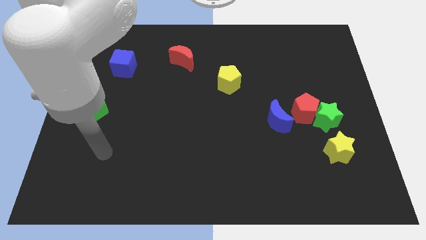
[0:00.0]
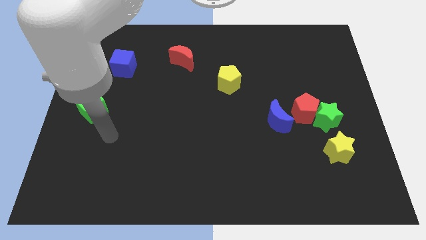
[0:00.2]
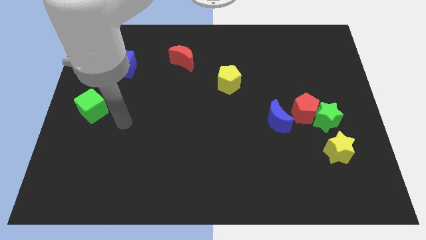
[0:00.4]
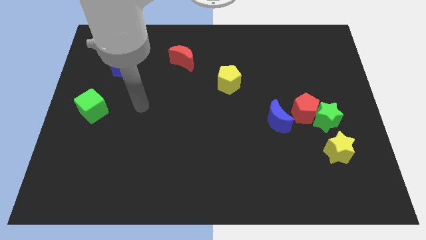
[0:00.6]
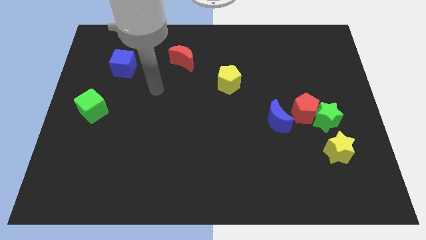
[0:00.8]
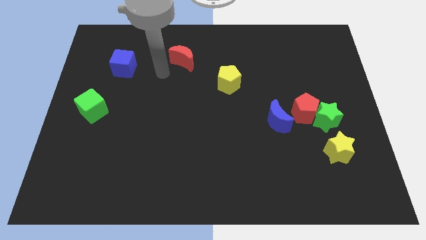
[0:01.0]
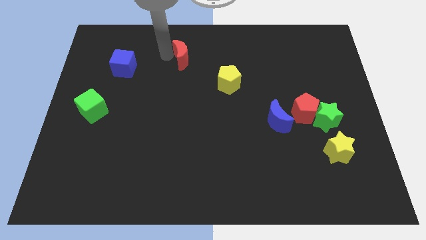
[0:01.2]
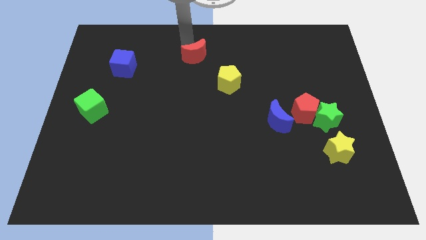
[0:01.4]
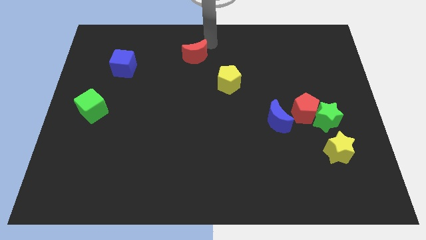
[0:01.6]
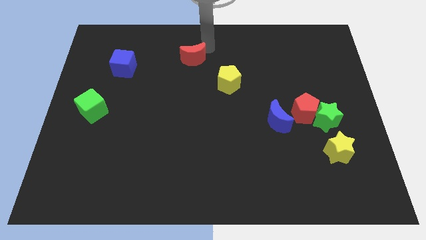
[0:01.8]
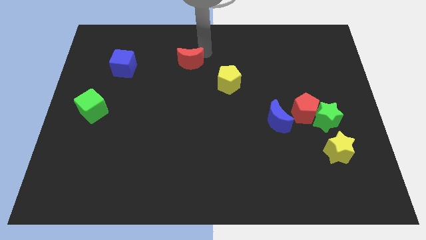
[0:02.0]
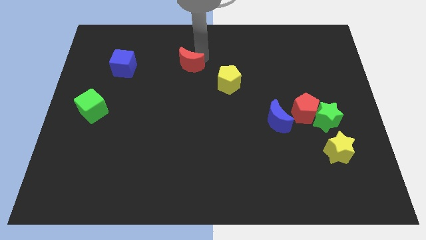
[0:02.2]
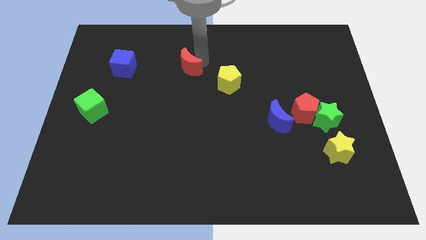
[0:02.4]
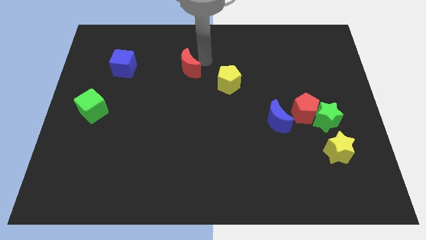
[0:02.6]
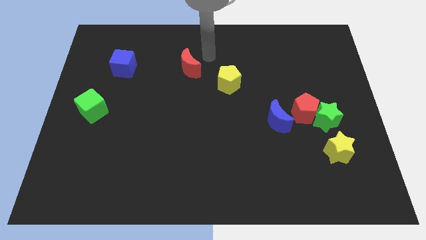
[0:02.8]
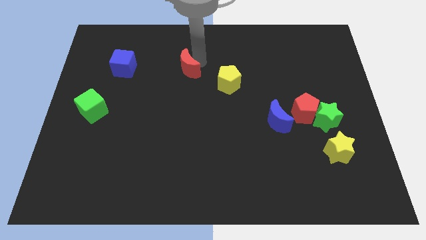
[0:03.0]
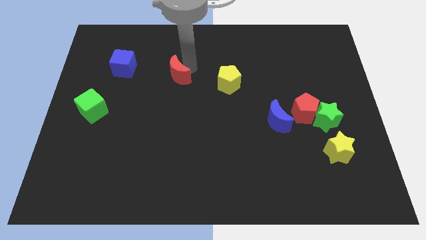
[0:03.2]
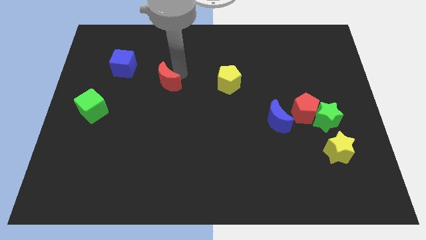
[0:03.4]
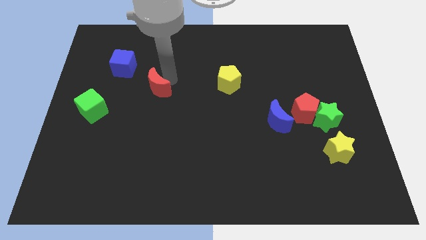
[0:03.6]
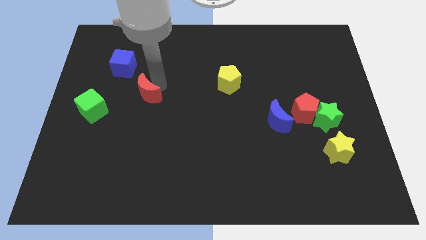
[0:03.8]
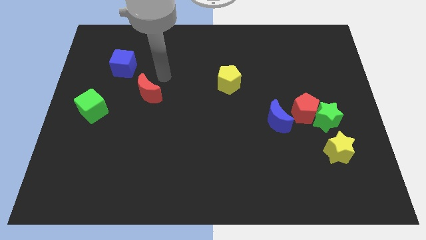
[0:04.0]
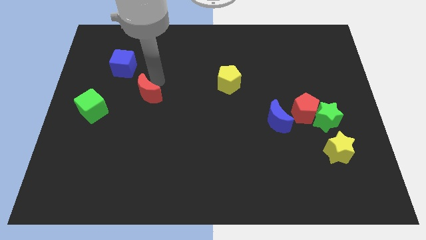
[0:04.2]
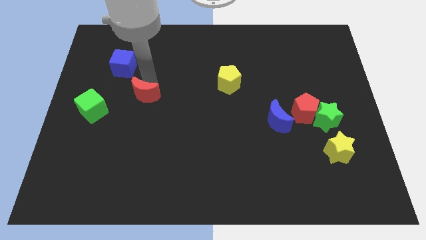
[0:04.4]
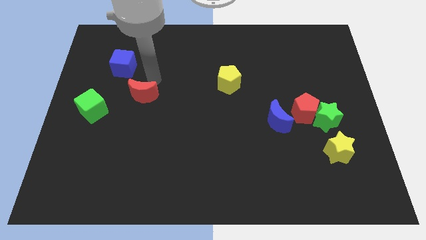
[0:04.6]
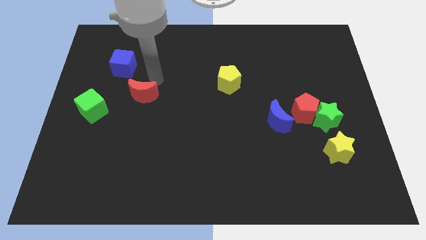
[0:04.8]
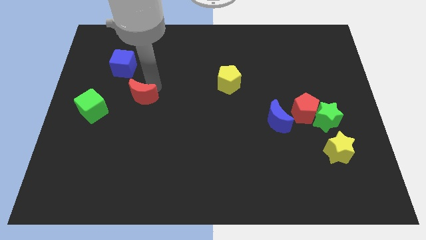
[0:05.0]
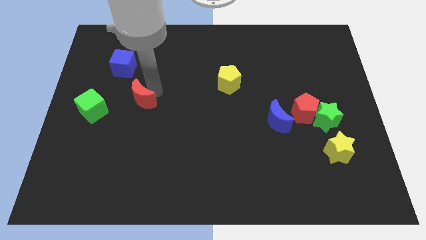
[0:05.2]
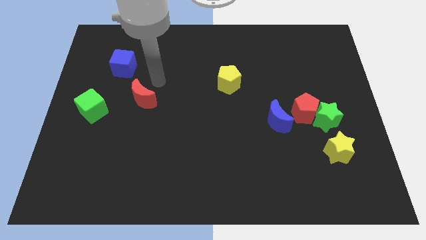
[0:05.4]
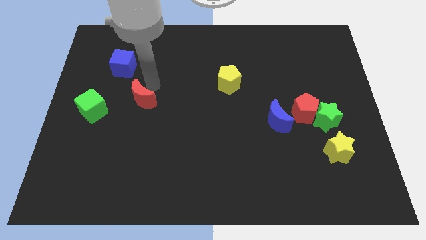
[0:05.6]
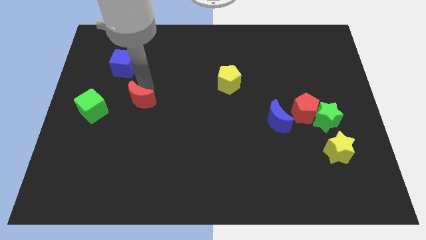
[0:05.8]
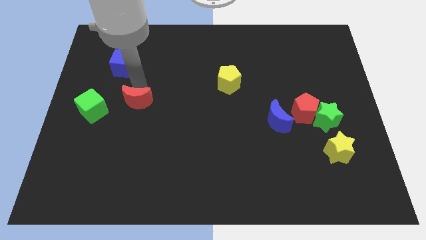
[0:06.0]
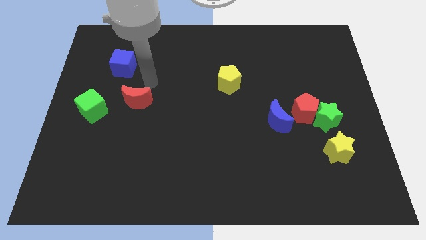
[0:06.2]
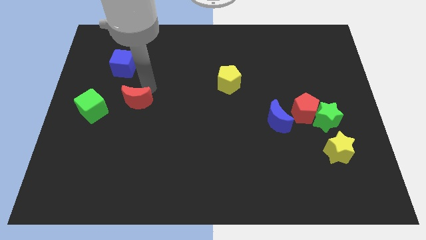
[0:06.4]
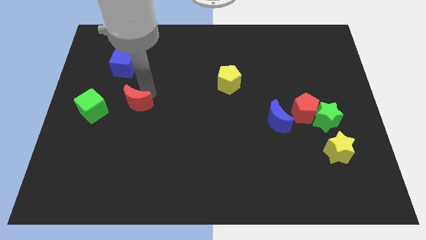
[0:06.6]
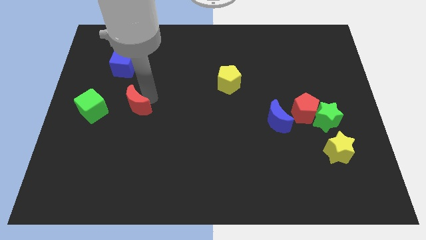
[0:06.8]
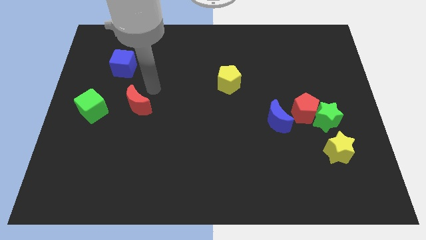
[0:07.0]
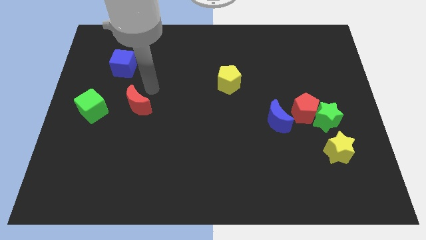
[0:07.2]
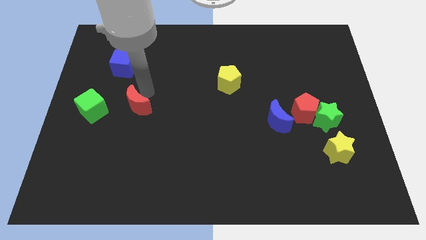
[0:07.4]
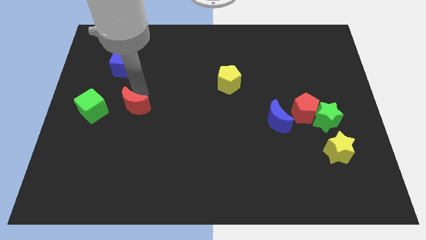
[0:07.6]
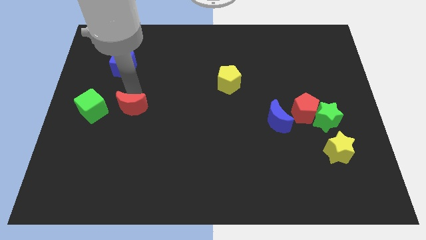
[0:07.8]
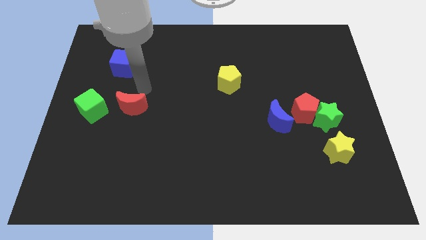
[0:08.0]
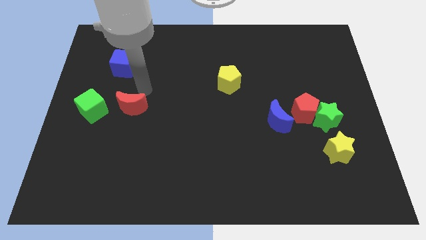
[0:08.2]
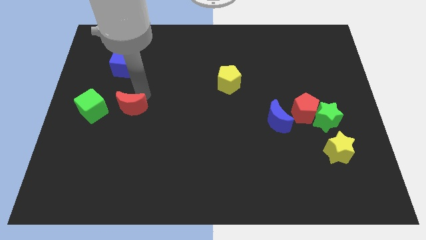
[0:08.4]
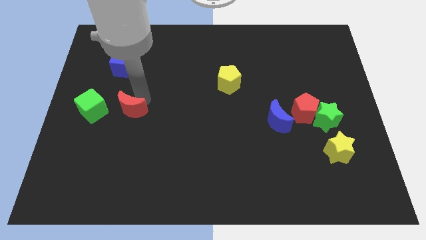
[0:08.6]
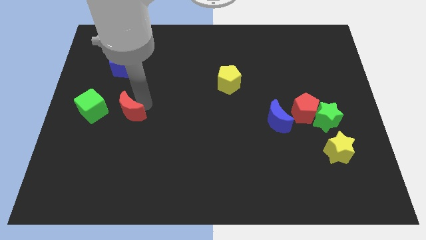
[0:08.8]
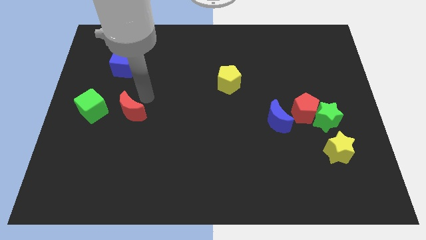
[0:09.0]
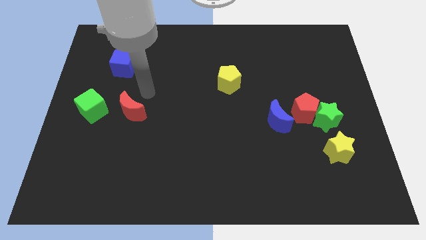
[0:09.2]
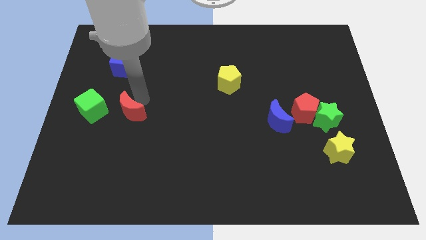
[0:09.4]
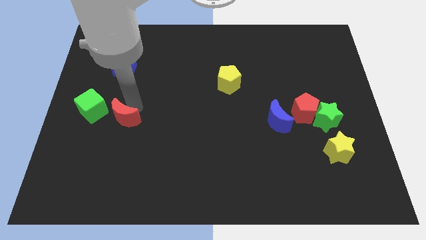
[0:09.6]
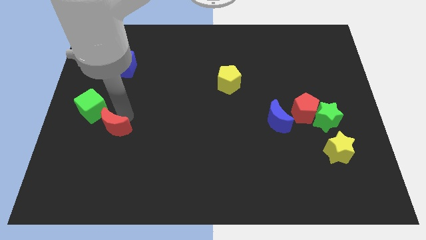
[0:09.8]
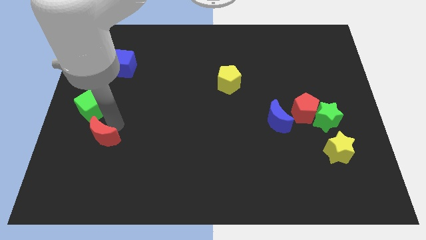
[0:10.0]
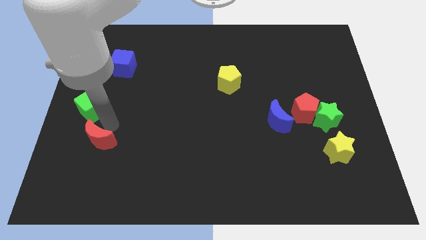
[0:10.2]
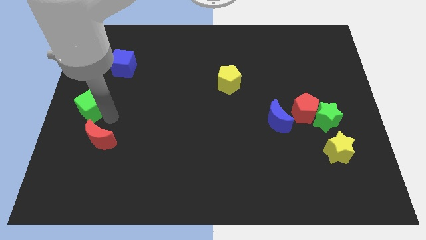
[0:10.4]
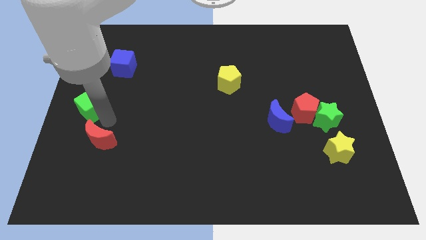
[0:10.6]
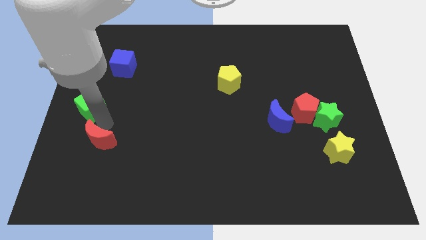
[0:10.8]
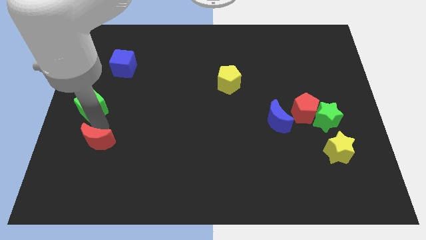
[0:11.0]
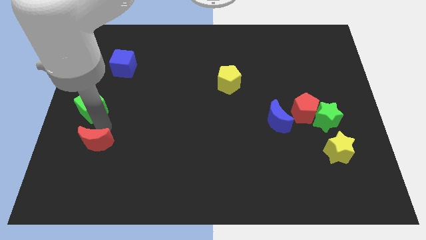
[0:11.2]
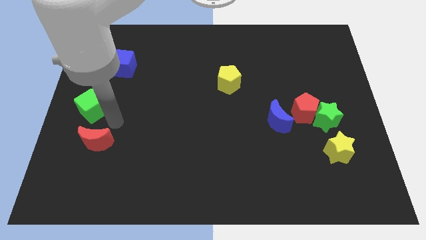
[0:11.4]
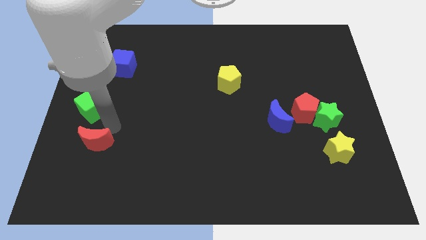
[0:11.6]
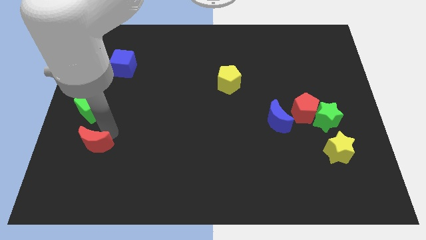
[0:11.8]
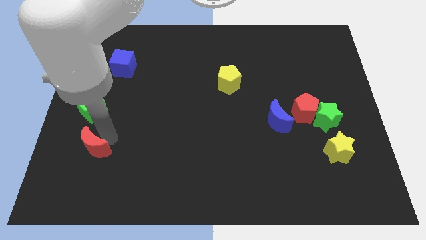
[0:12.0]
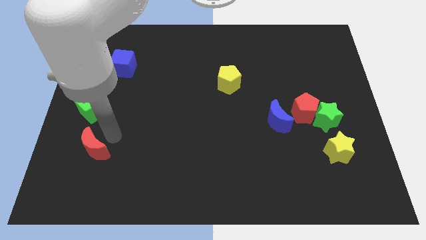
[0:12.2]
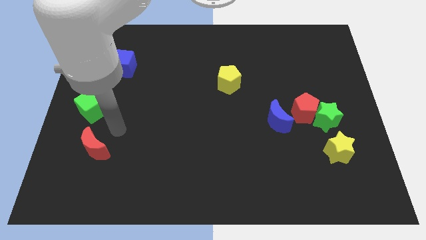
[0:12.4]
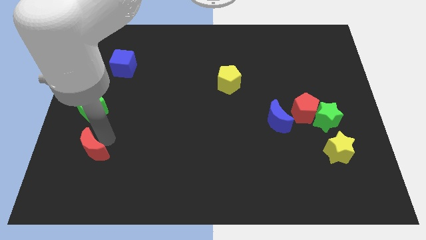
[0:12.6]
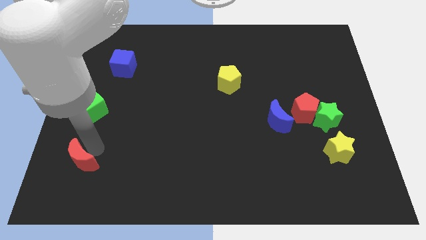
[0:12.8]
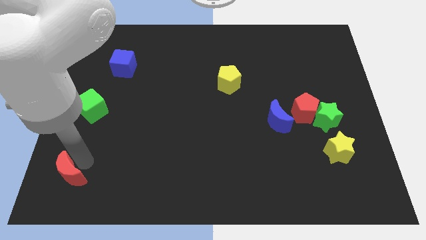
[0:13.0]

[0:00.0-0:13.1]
slide the red moon to the lower left corner

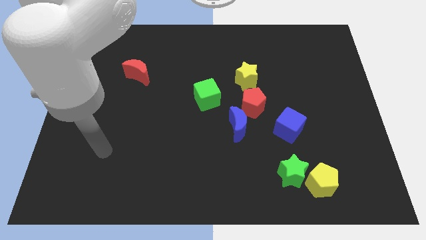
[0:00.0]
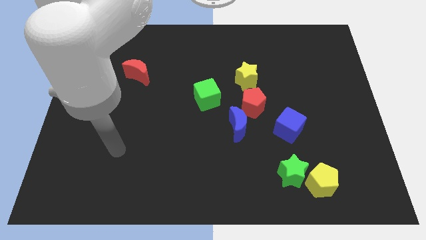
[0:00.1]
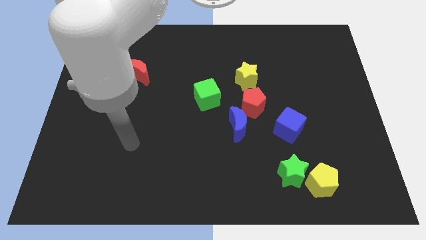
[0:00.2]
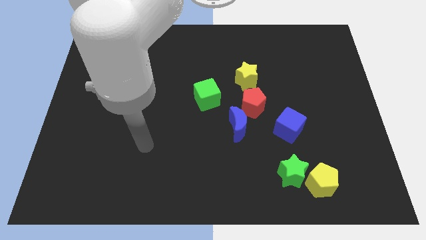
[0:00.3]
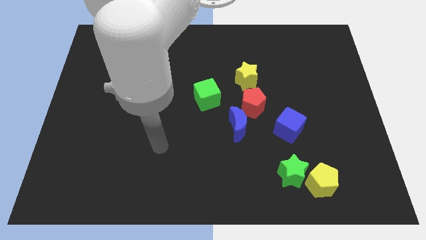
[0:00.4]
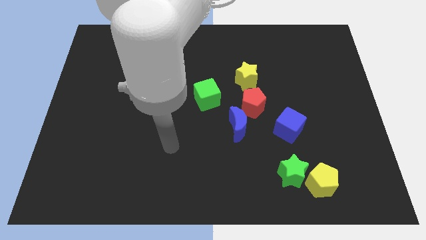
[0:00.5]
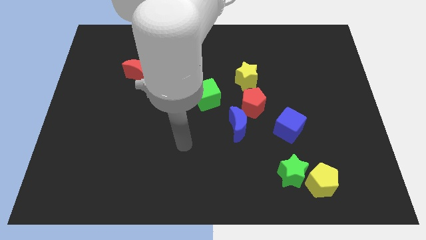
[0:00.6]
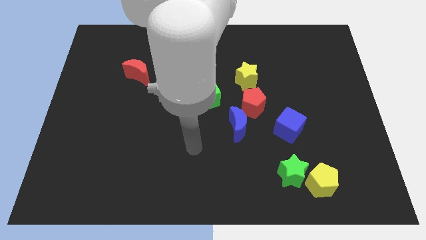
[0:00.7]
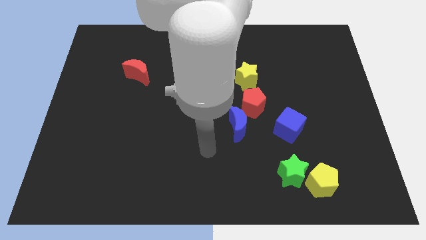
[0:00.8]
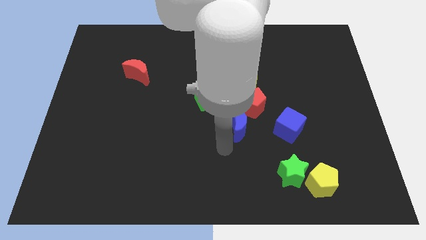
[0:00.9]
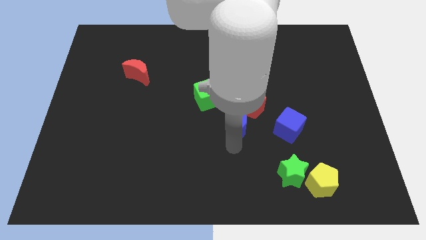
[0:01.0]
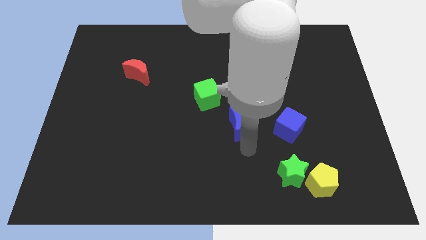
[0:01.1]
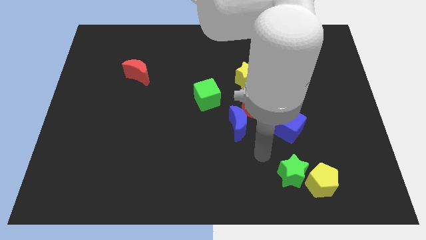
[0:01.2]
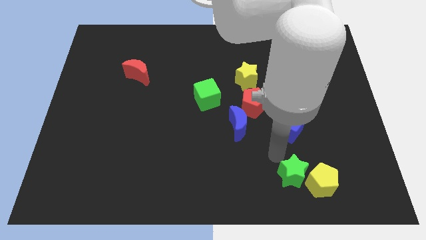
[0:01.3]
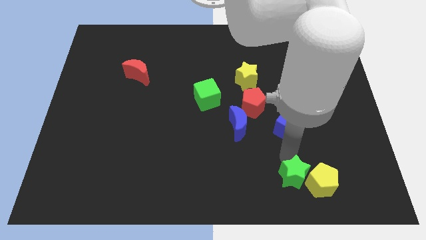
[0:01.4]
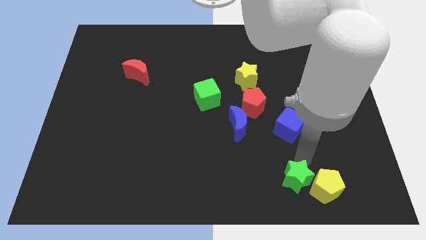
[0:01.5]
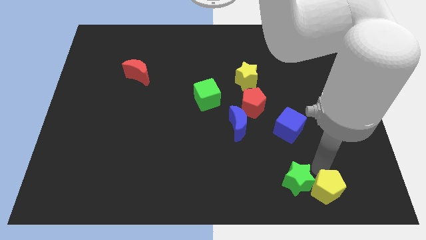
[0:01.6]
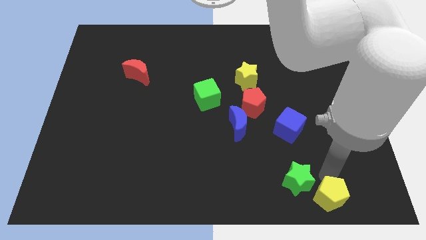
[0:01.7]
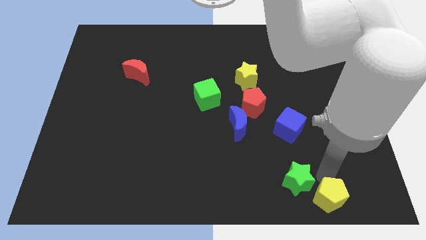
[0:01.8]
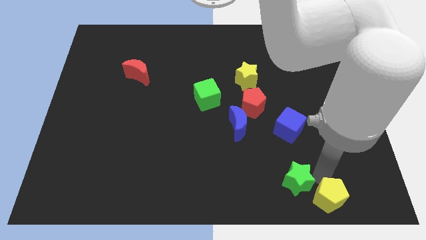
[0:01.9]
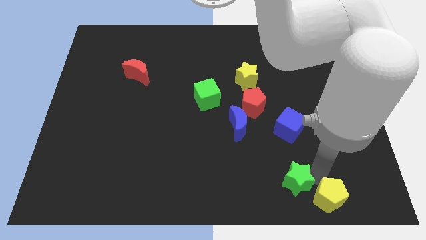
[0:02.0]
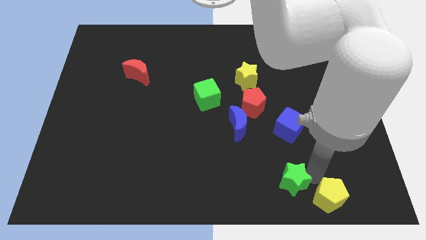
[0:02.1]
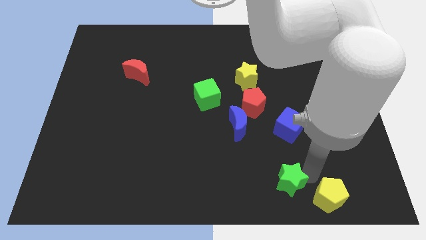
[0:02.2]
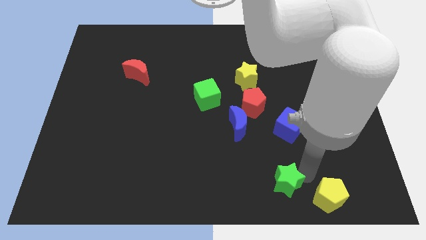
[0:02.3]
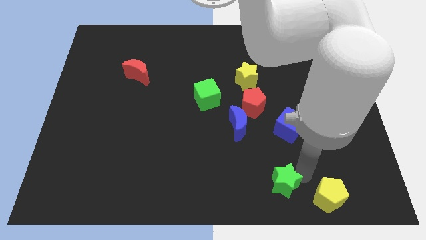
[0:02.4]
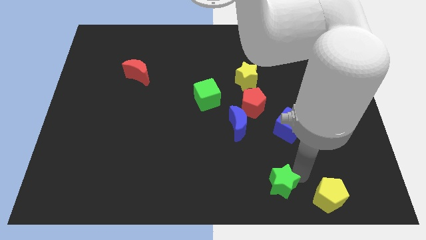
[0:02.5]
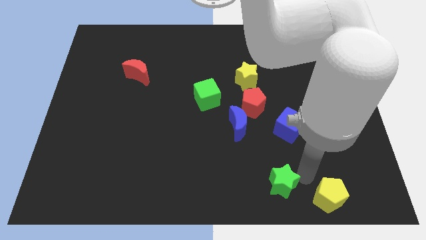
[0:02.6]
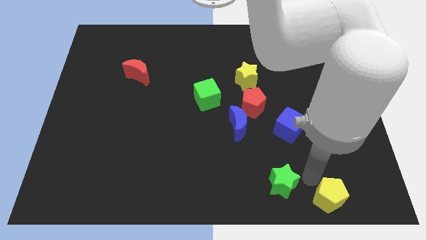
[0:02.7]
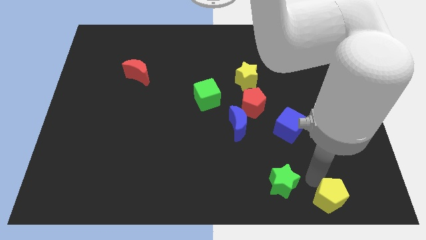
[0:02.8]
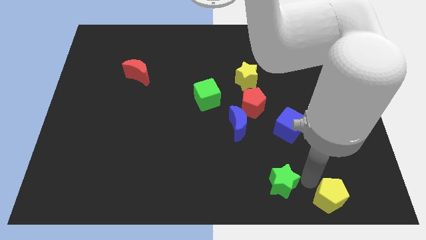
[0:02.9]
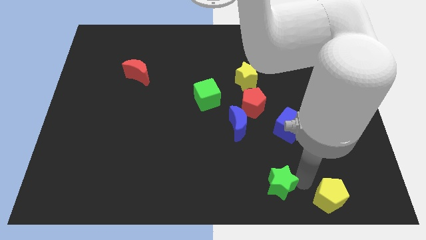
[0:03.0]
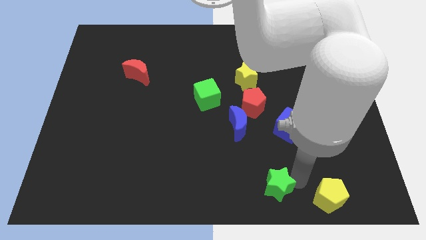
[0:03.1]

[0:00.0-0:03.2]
put the green star to the bottom
